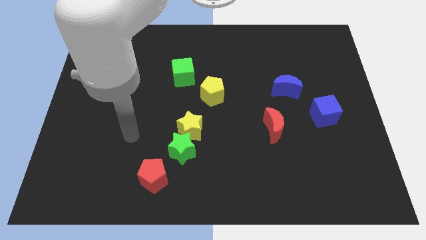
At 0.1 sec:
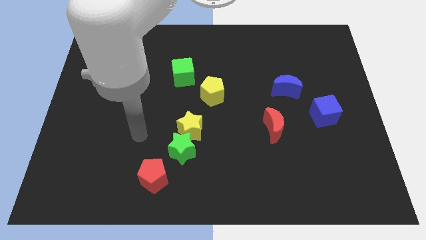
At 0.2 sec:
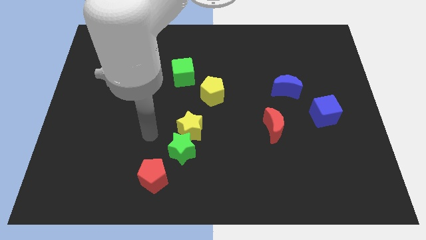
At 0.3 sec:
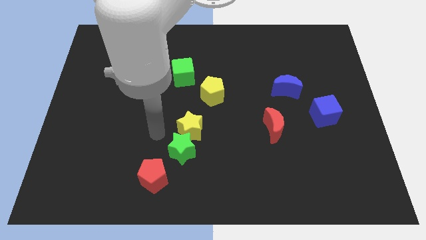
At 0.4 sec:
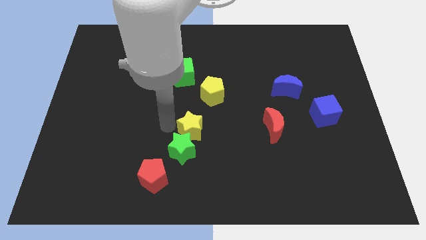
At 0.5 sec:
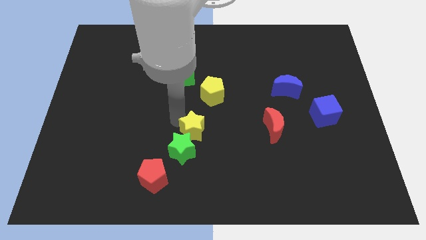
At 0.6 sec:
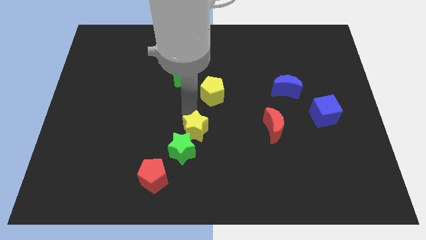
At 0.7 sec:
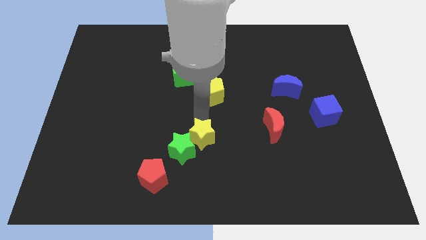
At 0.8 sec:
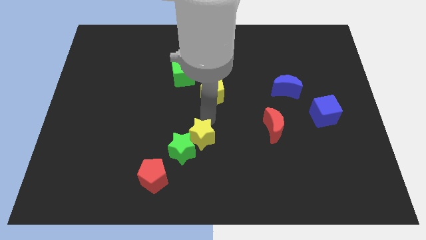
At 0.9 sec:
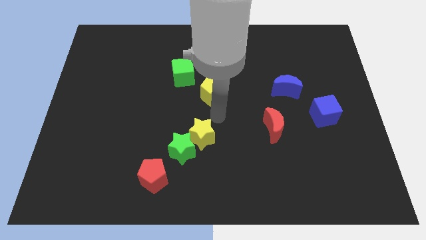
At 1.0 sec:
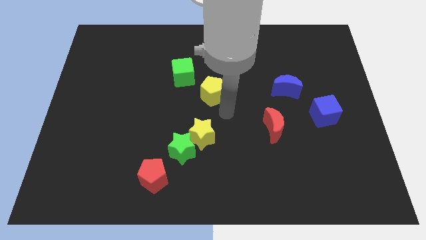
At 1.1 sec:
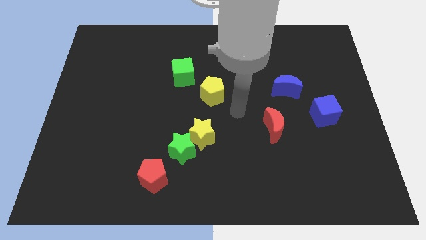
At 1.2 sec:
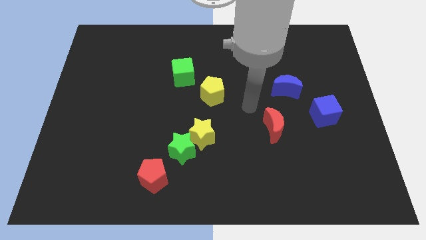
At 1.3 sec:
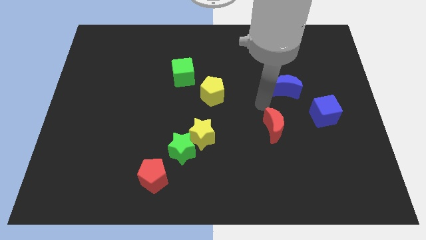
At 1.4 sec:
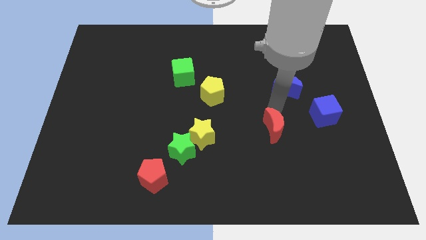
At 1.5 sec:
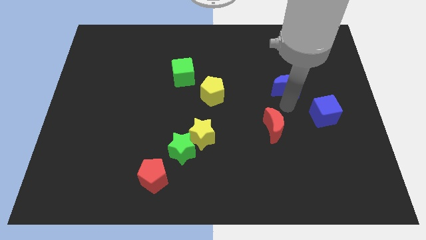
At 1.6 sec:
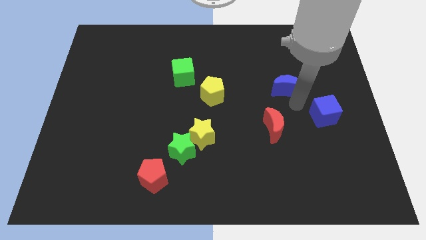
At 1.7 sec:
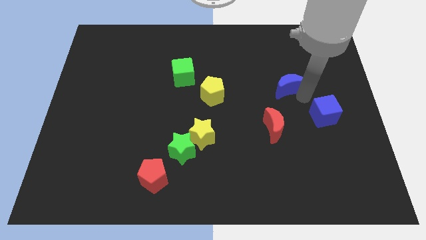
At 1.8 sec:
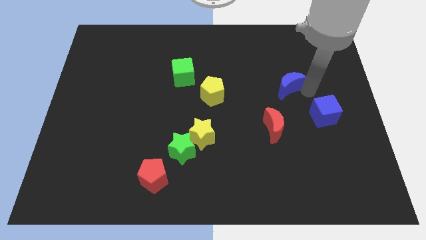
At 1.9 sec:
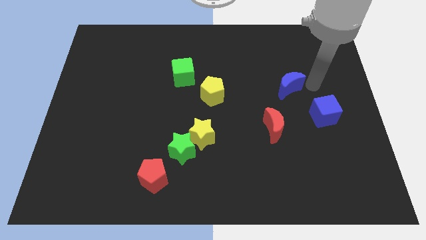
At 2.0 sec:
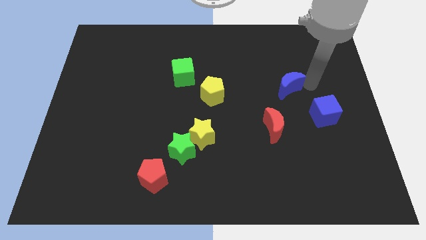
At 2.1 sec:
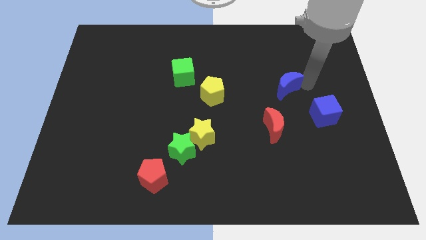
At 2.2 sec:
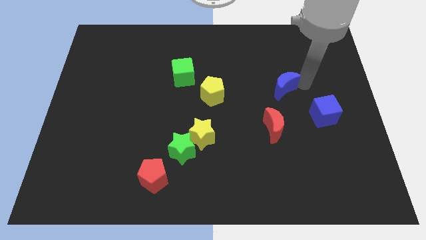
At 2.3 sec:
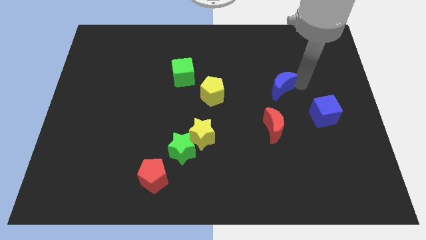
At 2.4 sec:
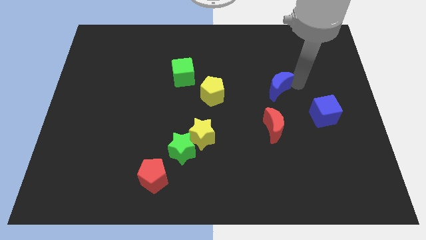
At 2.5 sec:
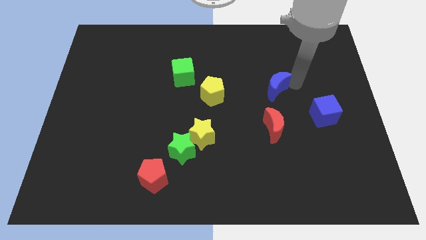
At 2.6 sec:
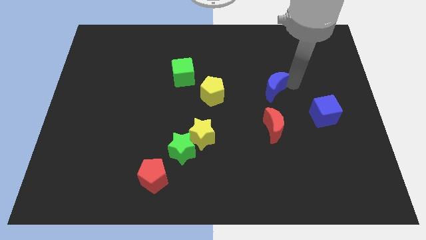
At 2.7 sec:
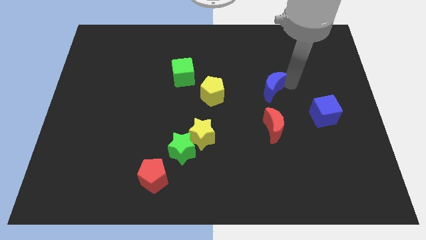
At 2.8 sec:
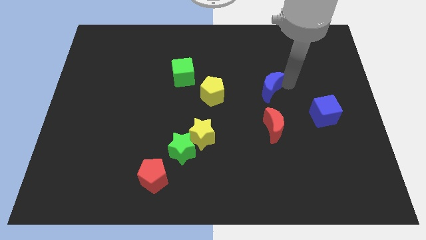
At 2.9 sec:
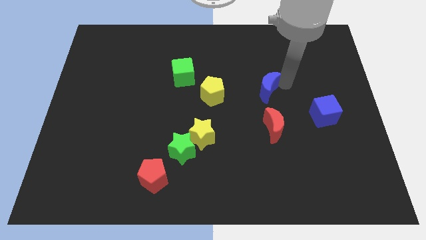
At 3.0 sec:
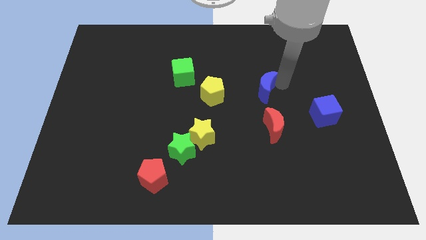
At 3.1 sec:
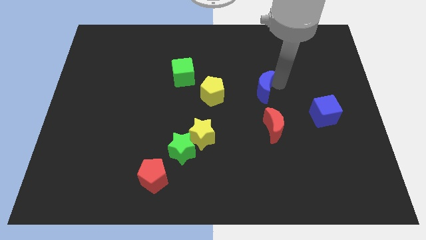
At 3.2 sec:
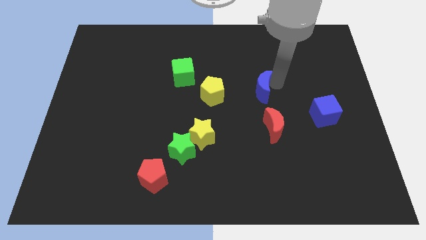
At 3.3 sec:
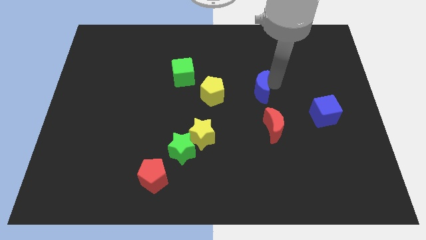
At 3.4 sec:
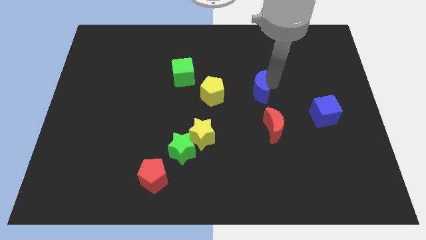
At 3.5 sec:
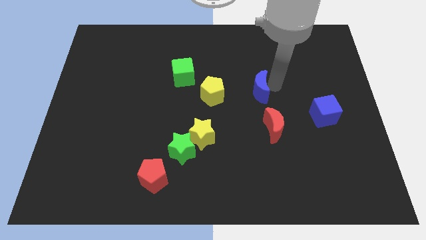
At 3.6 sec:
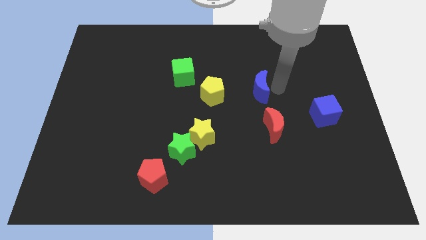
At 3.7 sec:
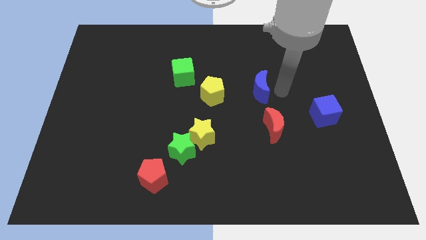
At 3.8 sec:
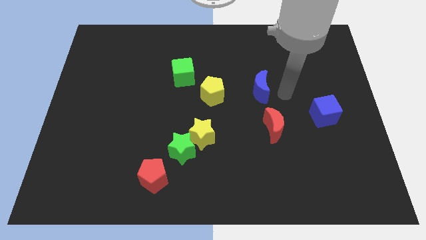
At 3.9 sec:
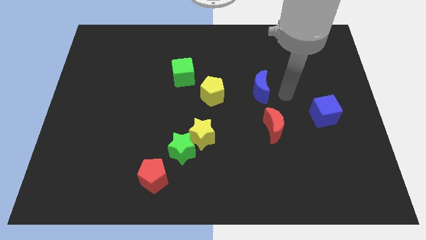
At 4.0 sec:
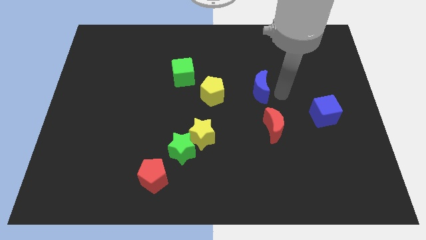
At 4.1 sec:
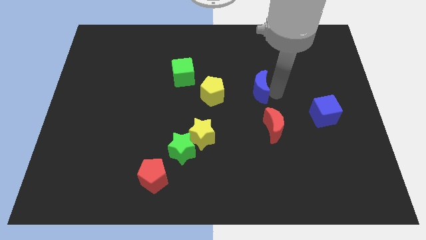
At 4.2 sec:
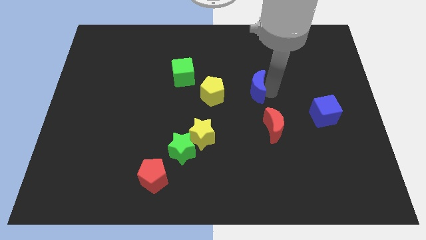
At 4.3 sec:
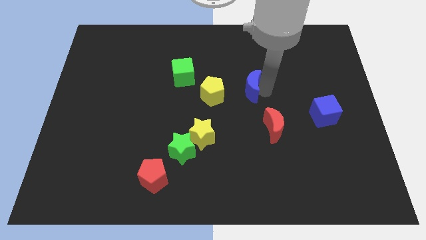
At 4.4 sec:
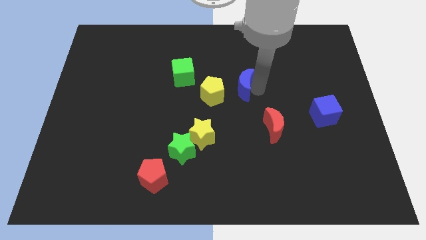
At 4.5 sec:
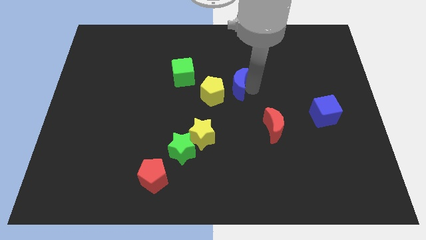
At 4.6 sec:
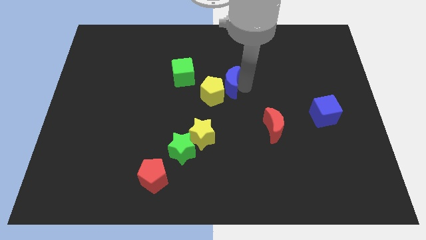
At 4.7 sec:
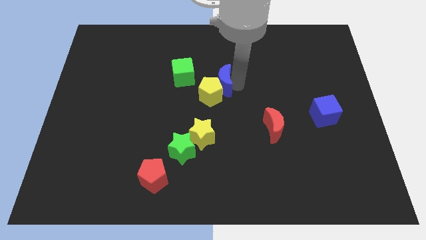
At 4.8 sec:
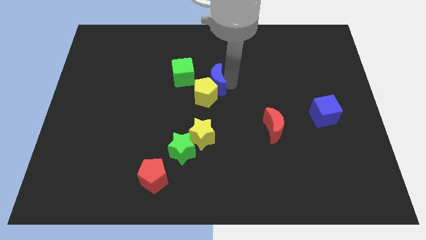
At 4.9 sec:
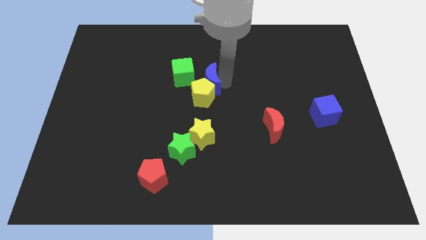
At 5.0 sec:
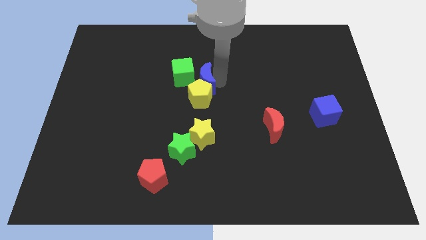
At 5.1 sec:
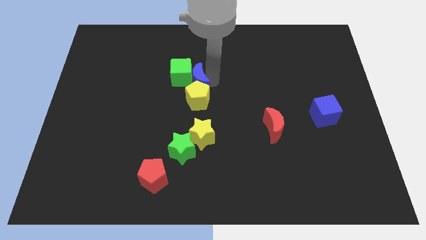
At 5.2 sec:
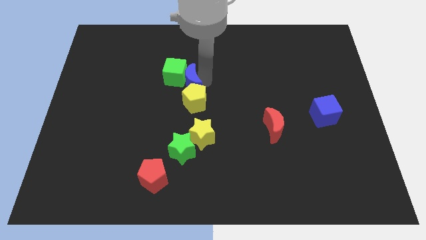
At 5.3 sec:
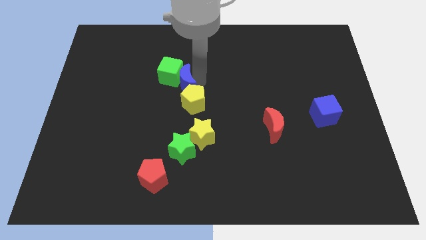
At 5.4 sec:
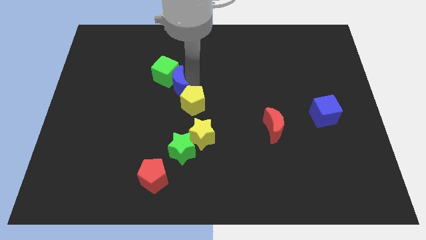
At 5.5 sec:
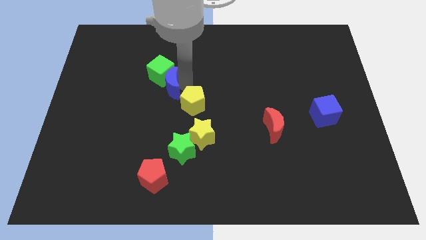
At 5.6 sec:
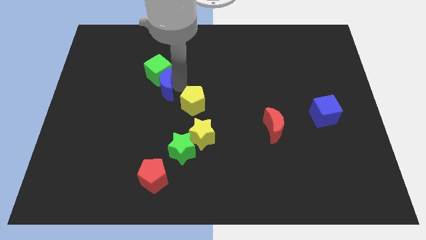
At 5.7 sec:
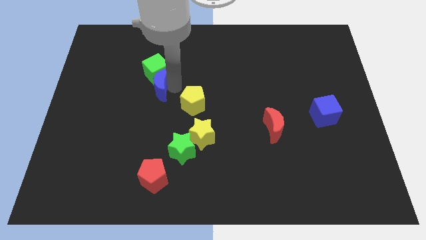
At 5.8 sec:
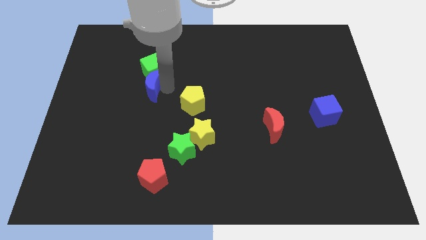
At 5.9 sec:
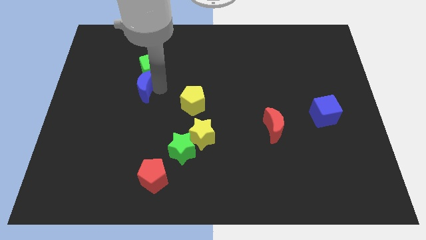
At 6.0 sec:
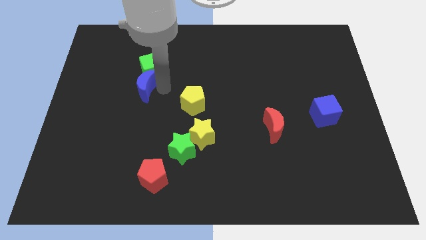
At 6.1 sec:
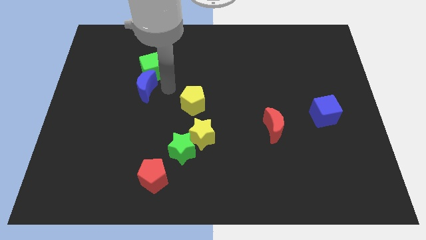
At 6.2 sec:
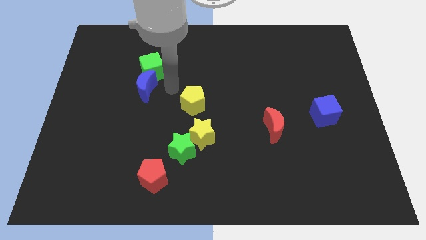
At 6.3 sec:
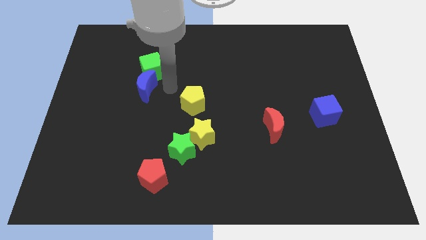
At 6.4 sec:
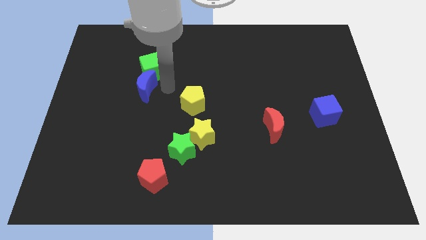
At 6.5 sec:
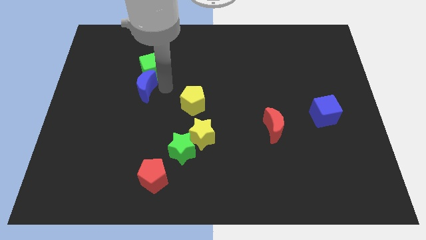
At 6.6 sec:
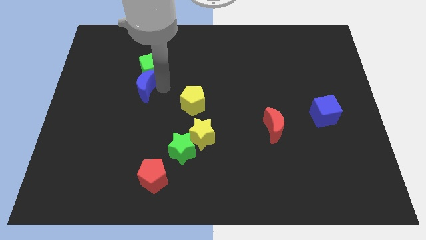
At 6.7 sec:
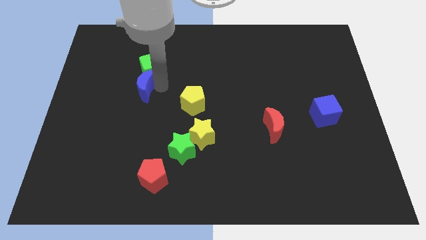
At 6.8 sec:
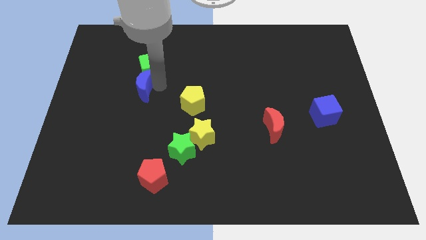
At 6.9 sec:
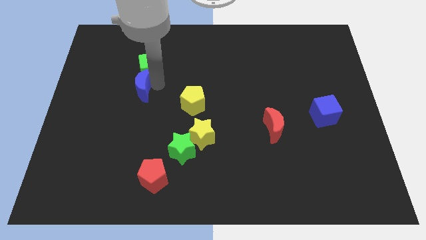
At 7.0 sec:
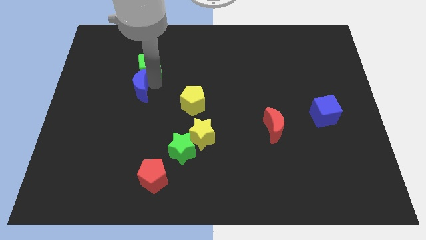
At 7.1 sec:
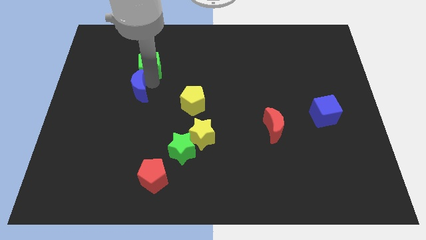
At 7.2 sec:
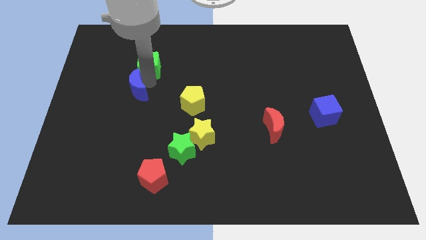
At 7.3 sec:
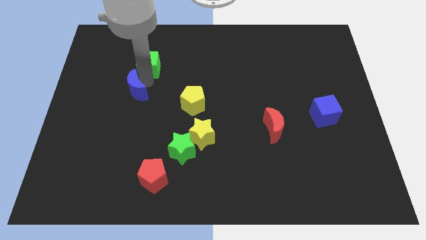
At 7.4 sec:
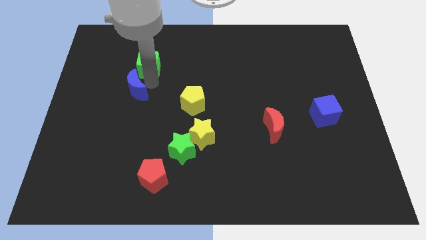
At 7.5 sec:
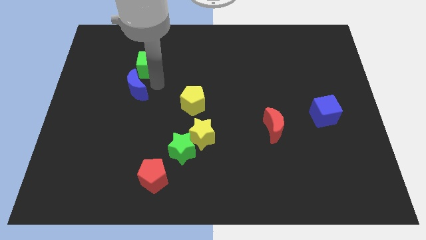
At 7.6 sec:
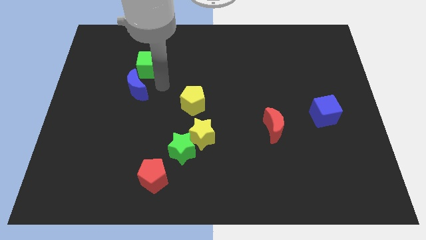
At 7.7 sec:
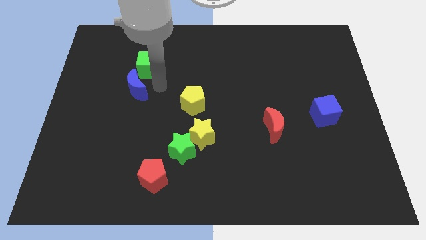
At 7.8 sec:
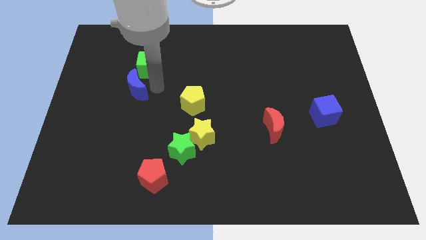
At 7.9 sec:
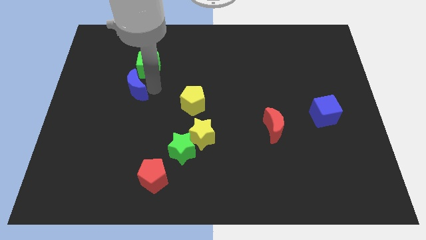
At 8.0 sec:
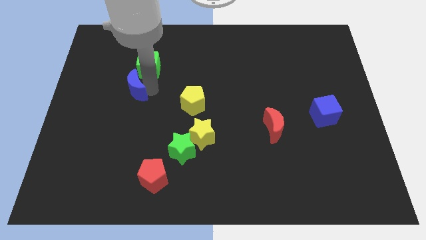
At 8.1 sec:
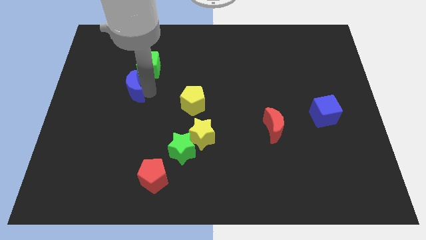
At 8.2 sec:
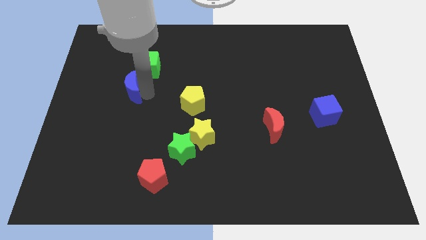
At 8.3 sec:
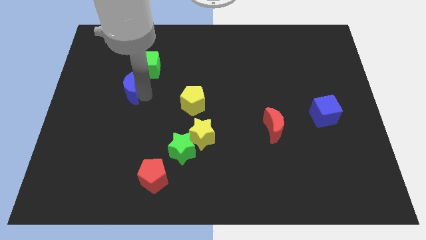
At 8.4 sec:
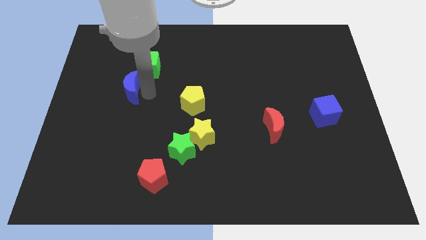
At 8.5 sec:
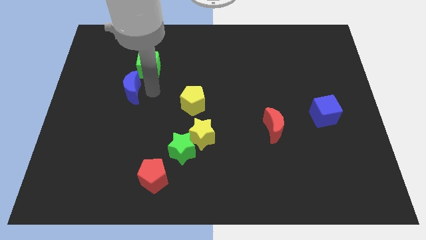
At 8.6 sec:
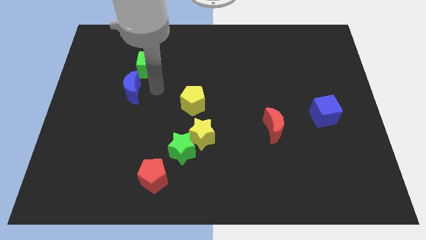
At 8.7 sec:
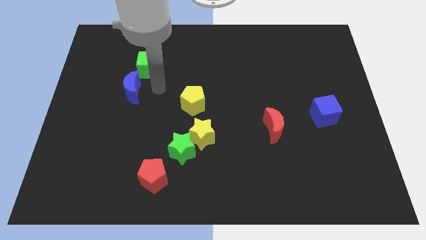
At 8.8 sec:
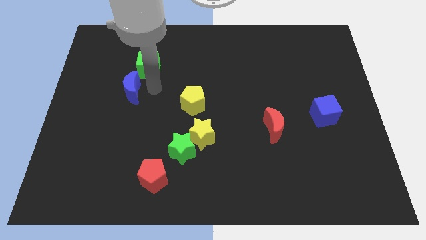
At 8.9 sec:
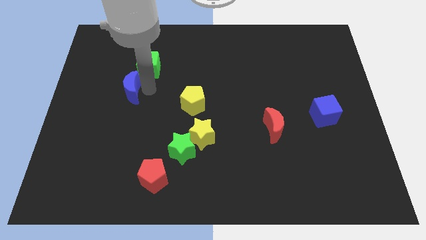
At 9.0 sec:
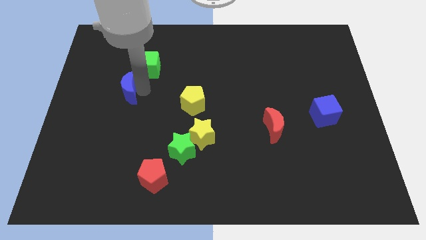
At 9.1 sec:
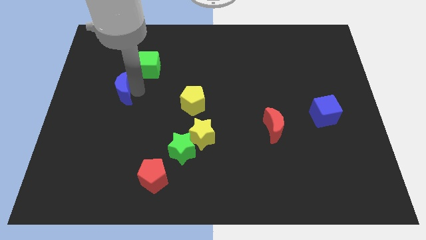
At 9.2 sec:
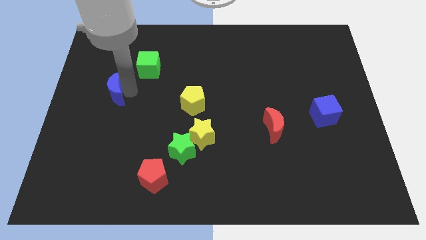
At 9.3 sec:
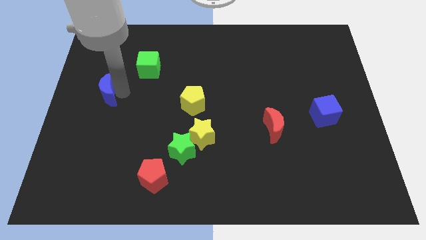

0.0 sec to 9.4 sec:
push the blue moon to the left side
